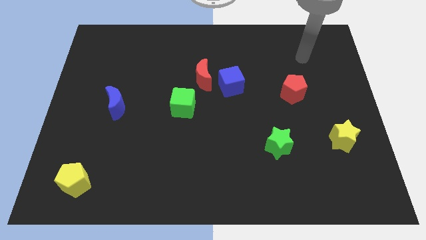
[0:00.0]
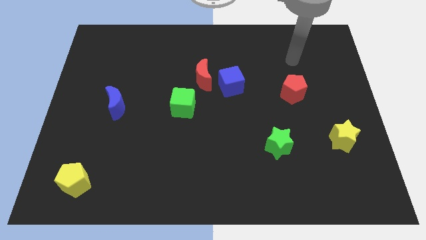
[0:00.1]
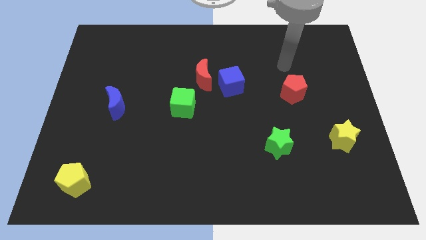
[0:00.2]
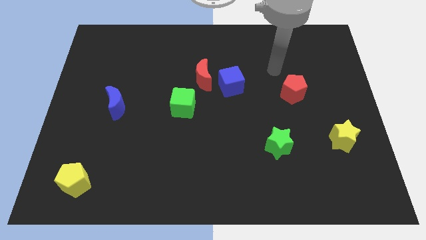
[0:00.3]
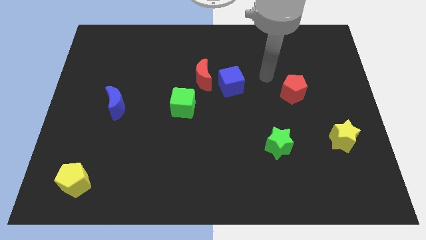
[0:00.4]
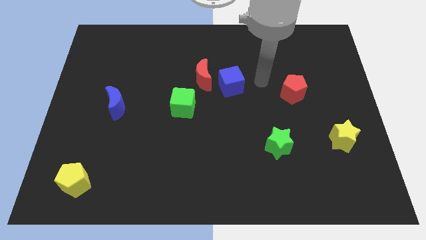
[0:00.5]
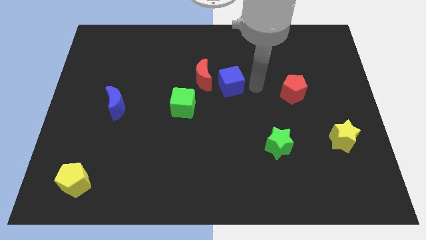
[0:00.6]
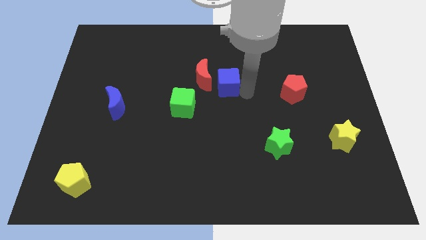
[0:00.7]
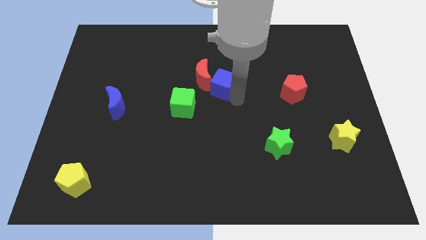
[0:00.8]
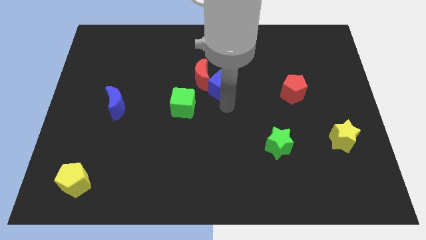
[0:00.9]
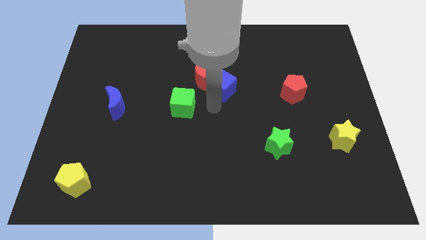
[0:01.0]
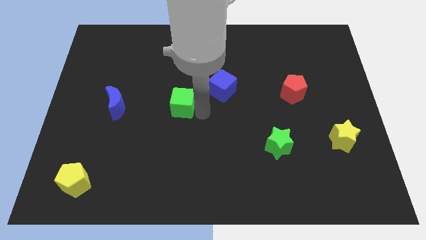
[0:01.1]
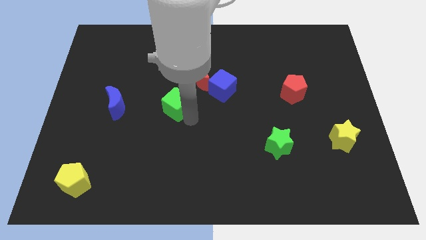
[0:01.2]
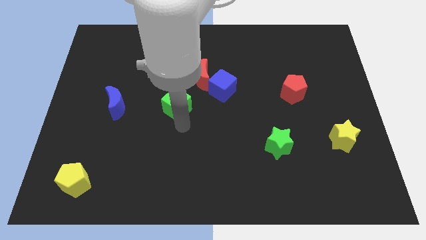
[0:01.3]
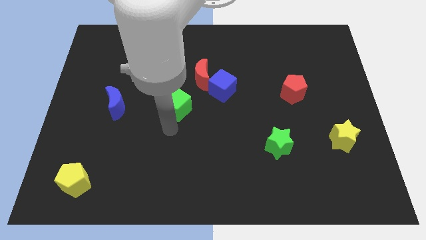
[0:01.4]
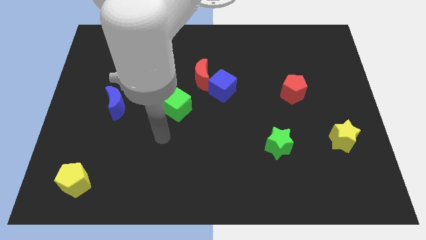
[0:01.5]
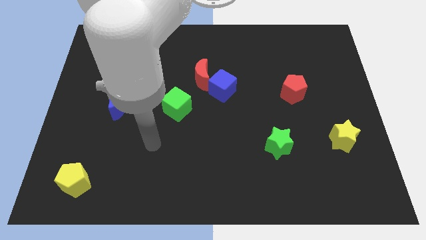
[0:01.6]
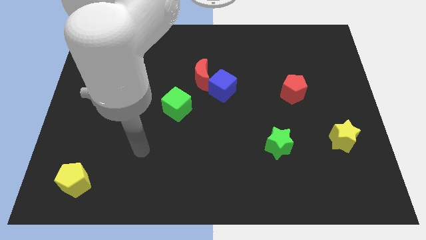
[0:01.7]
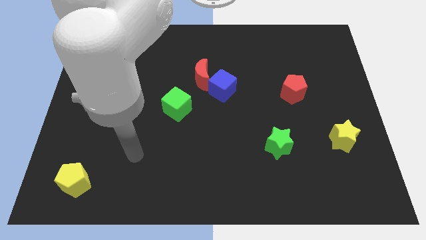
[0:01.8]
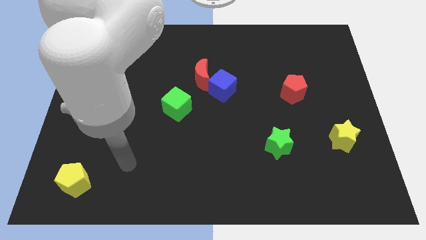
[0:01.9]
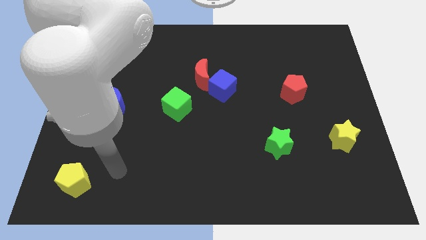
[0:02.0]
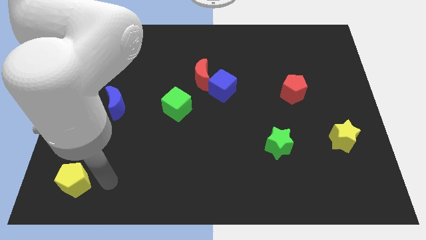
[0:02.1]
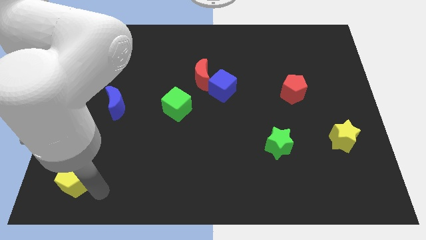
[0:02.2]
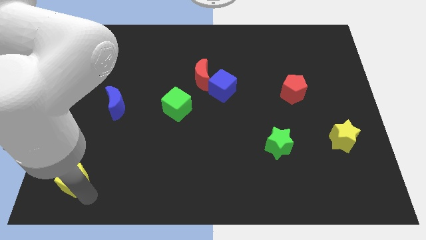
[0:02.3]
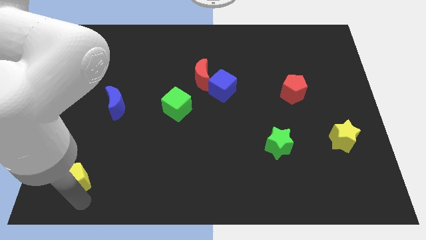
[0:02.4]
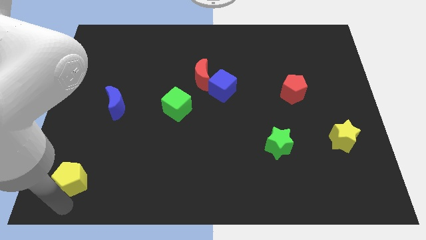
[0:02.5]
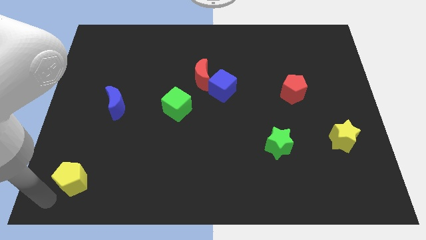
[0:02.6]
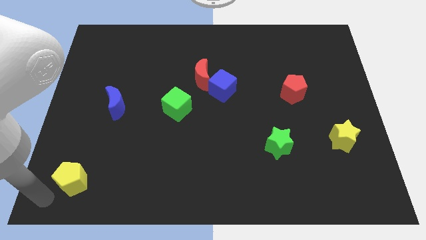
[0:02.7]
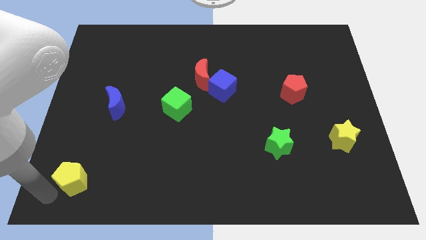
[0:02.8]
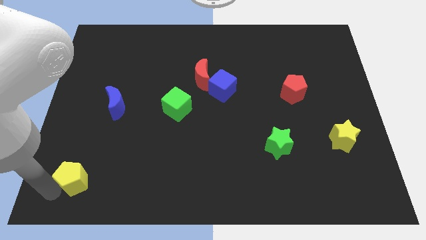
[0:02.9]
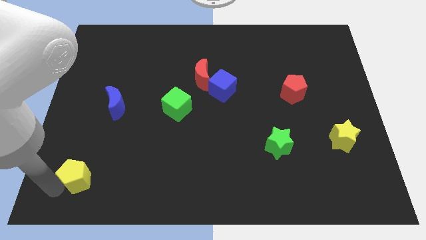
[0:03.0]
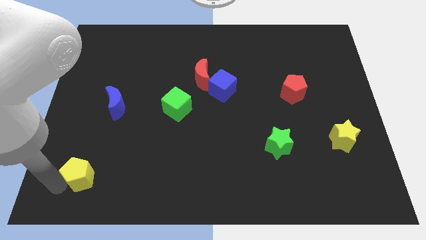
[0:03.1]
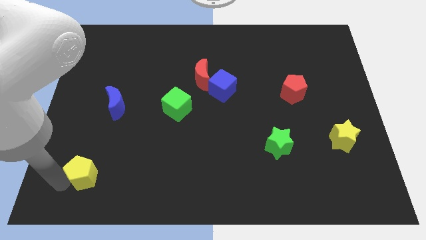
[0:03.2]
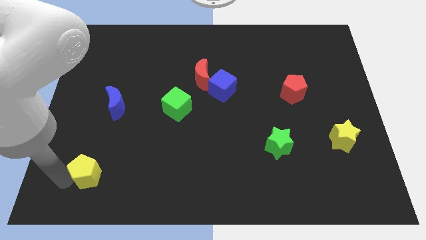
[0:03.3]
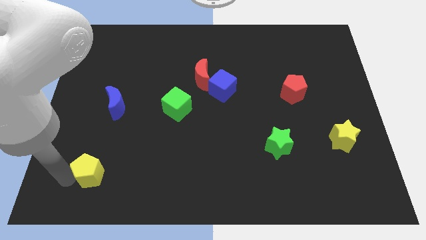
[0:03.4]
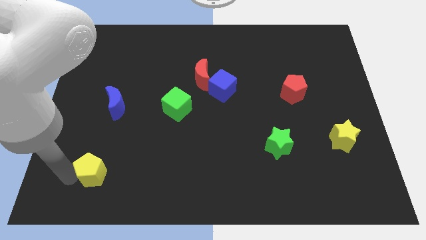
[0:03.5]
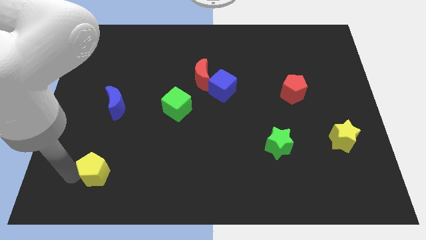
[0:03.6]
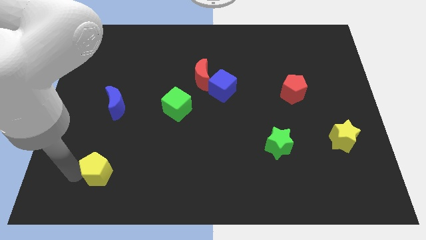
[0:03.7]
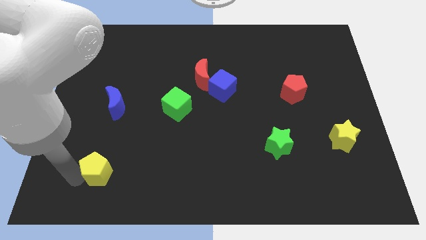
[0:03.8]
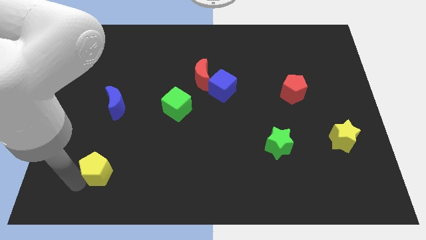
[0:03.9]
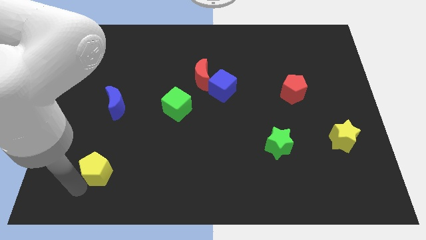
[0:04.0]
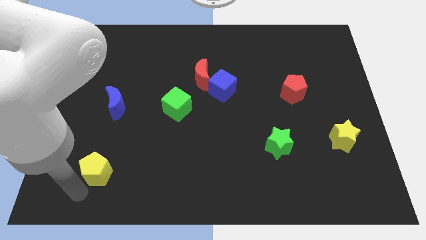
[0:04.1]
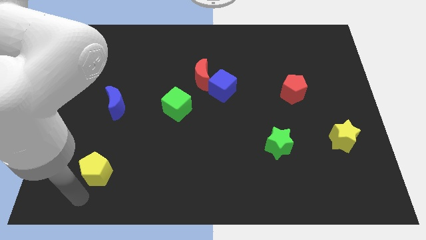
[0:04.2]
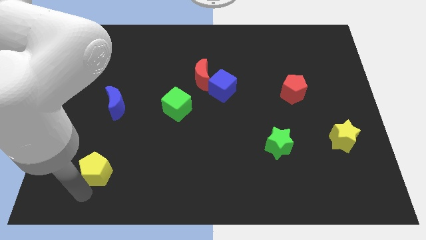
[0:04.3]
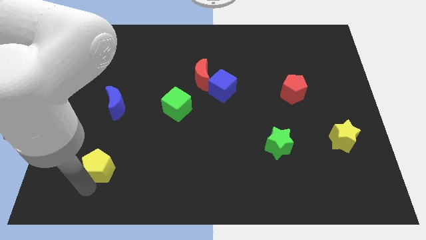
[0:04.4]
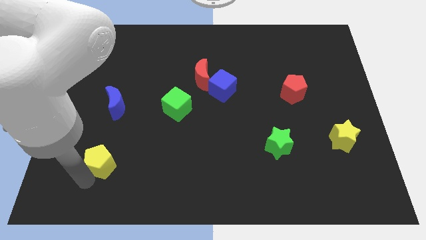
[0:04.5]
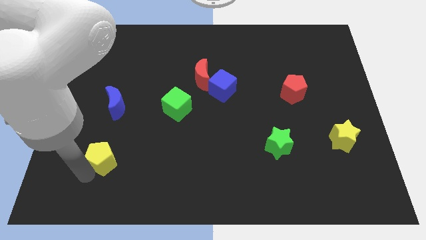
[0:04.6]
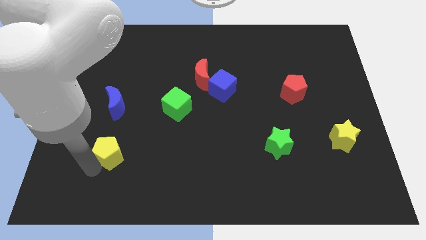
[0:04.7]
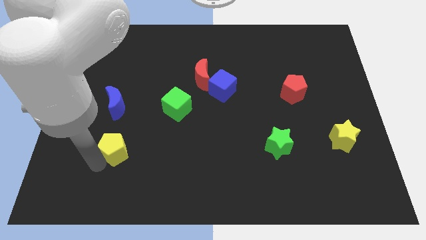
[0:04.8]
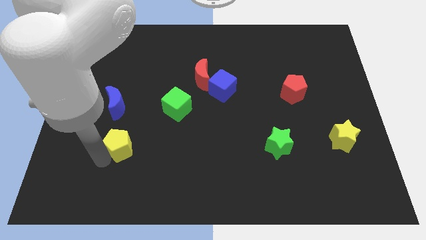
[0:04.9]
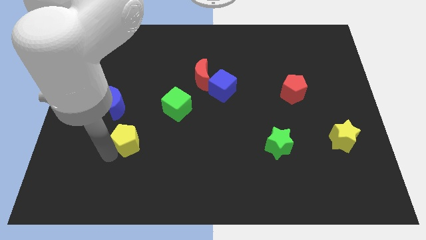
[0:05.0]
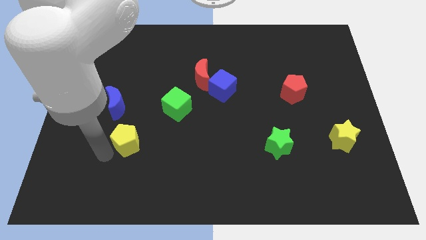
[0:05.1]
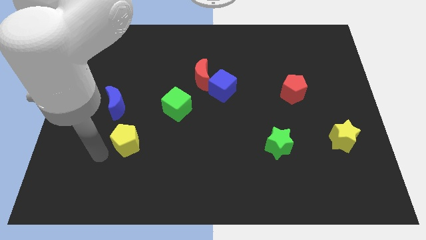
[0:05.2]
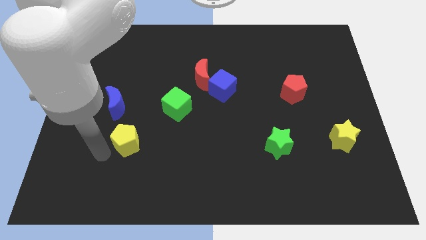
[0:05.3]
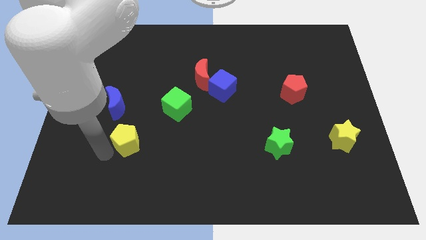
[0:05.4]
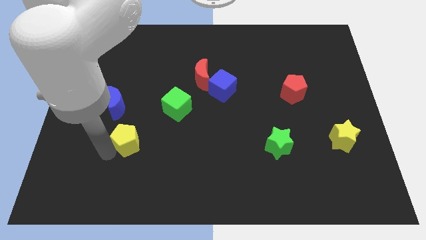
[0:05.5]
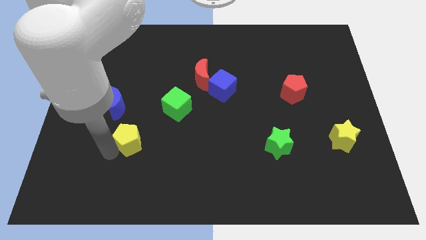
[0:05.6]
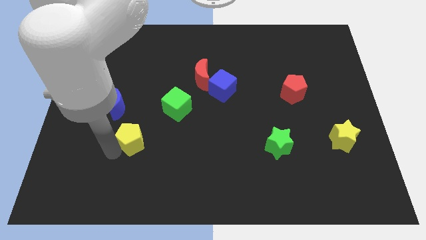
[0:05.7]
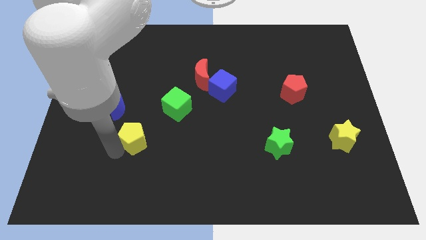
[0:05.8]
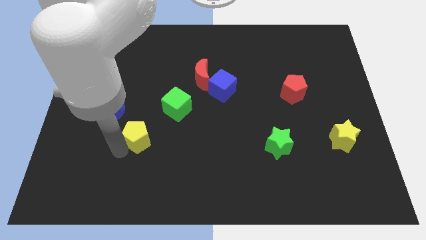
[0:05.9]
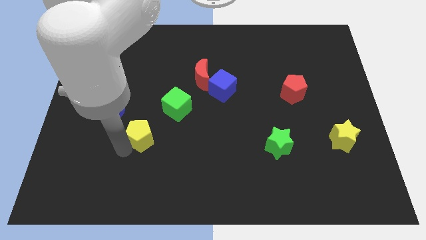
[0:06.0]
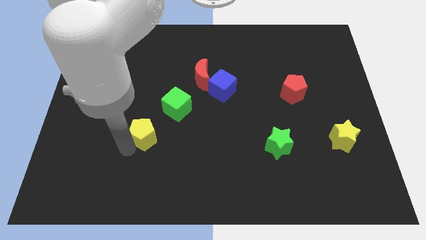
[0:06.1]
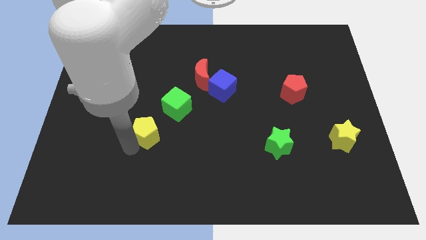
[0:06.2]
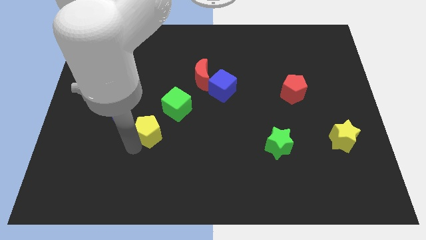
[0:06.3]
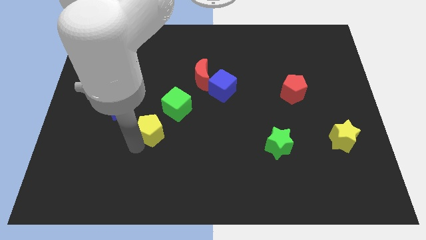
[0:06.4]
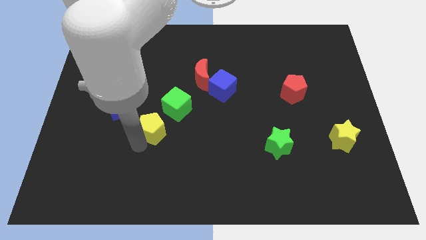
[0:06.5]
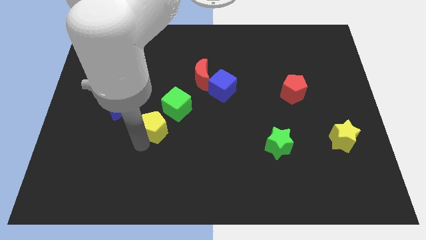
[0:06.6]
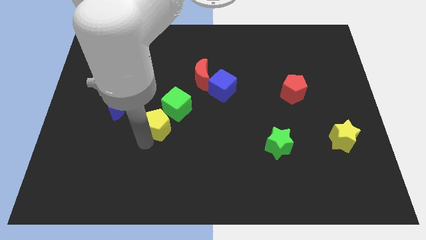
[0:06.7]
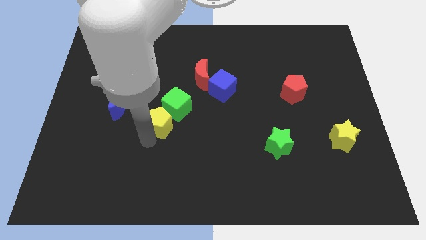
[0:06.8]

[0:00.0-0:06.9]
move the yellow pentagon next to the green cube
